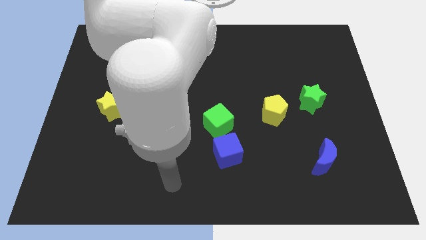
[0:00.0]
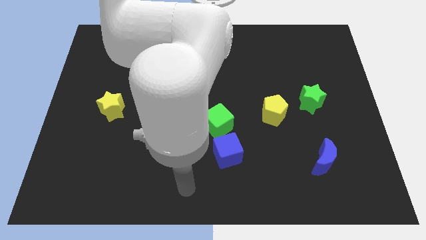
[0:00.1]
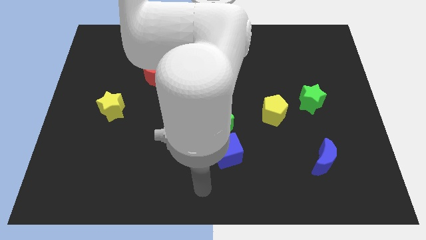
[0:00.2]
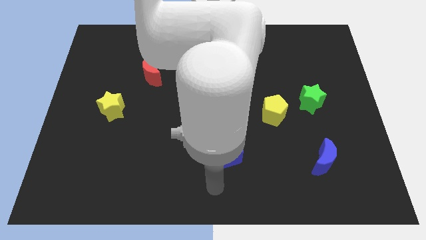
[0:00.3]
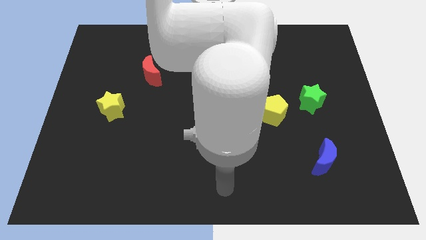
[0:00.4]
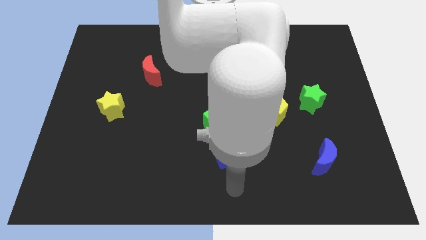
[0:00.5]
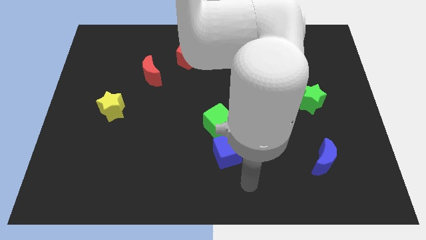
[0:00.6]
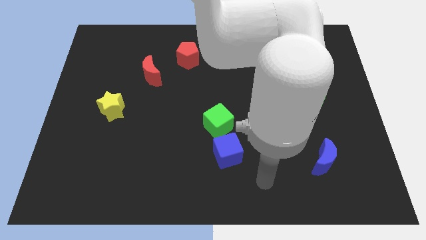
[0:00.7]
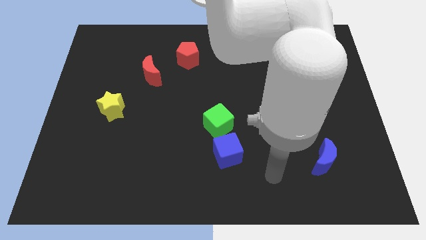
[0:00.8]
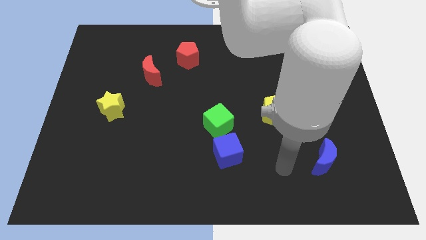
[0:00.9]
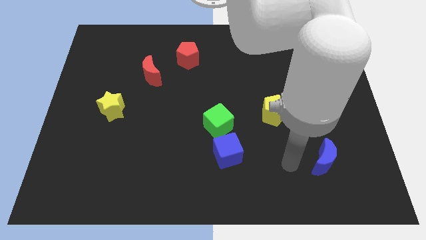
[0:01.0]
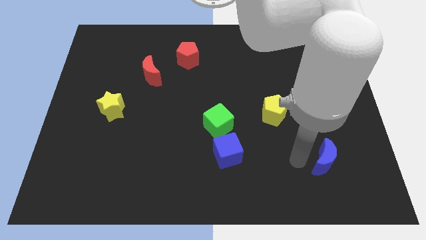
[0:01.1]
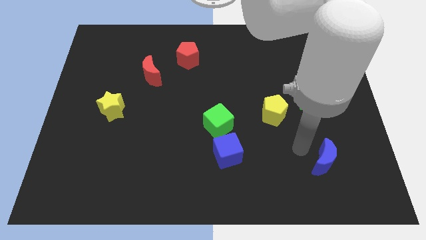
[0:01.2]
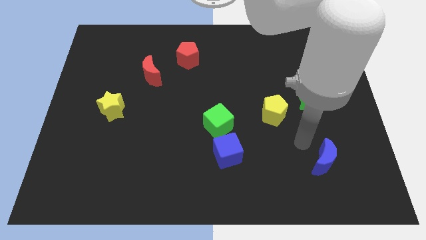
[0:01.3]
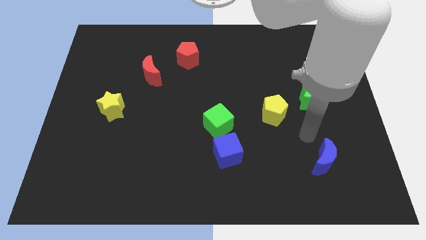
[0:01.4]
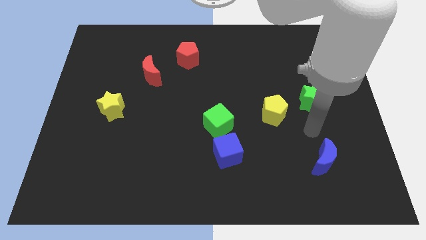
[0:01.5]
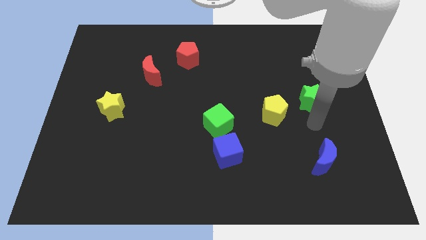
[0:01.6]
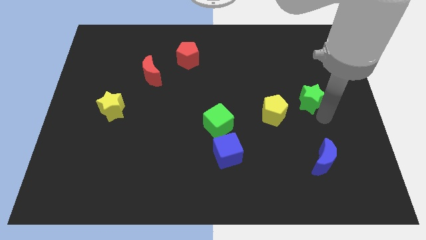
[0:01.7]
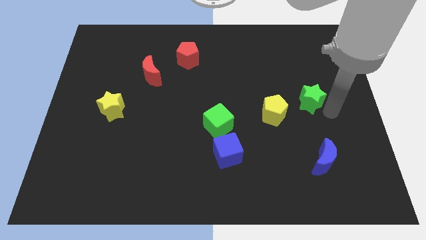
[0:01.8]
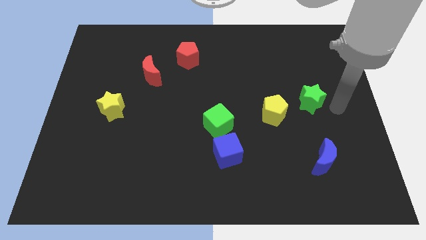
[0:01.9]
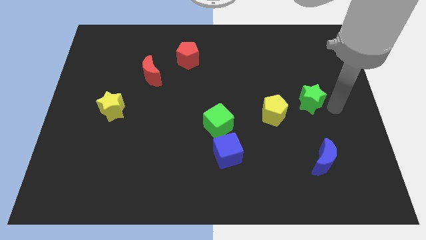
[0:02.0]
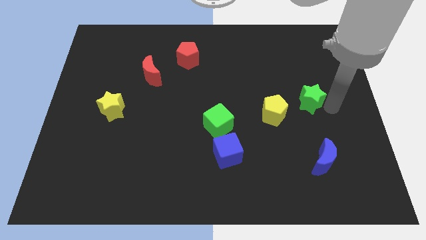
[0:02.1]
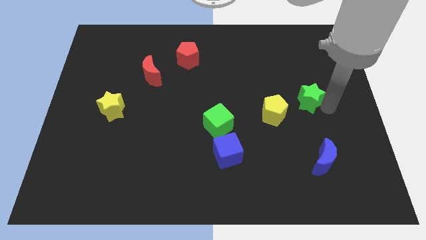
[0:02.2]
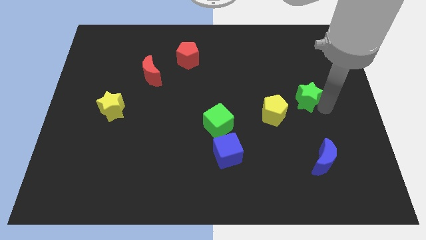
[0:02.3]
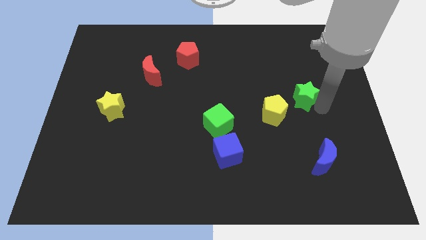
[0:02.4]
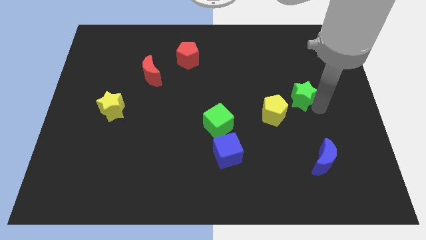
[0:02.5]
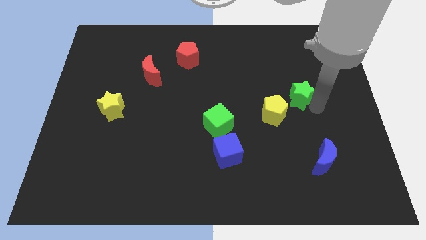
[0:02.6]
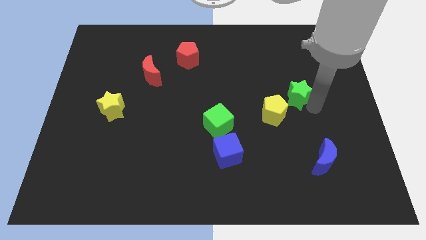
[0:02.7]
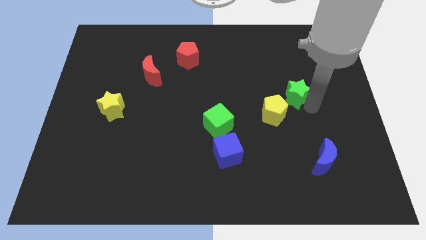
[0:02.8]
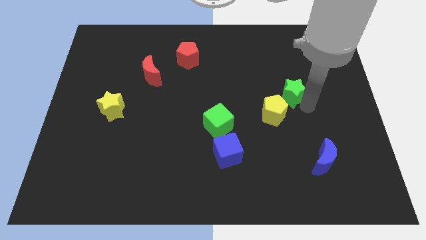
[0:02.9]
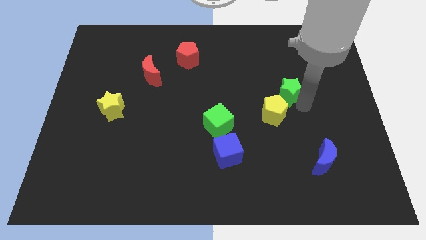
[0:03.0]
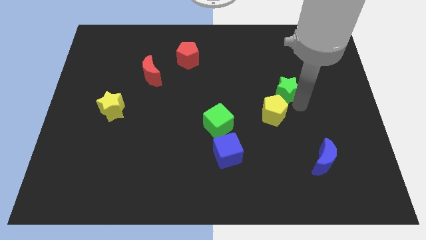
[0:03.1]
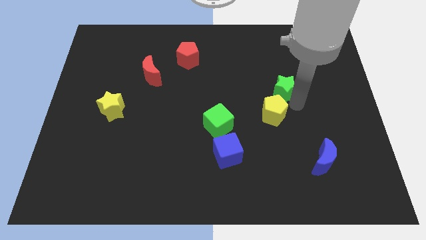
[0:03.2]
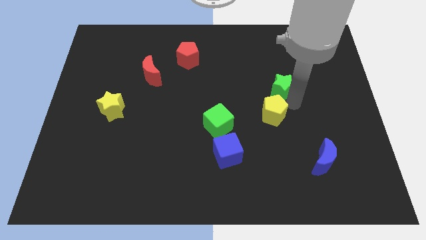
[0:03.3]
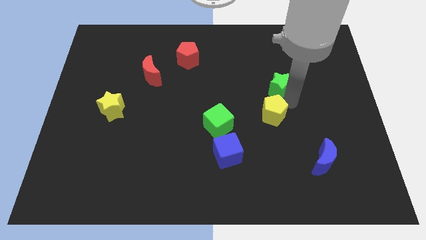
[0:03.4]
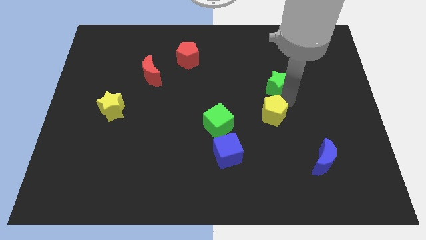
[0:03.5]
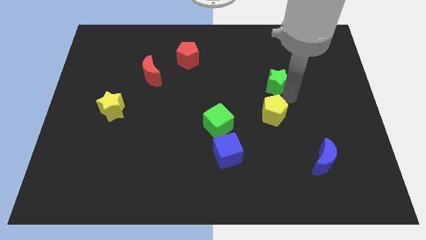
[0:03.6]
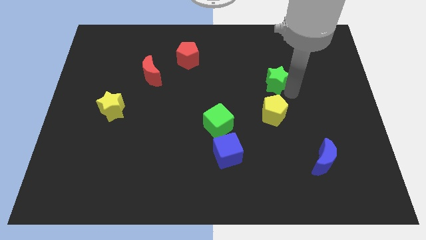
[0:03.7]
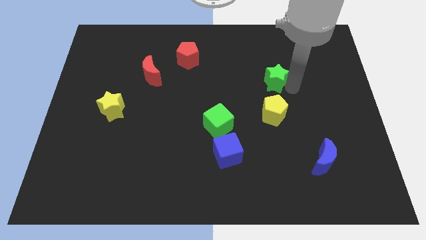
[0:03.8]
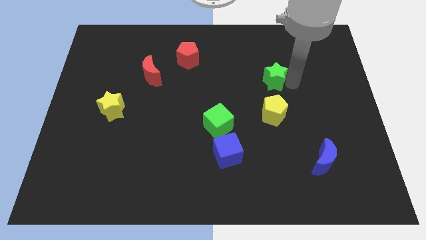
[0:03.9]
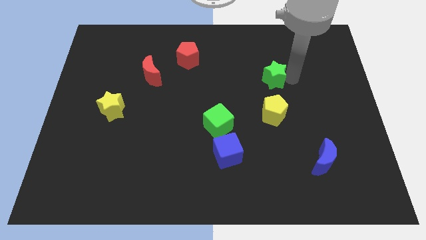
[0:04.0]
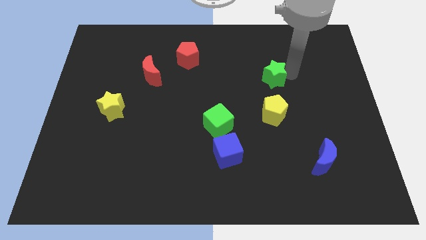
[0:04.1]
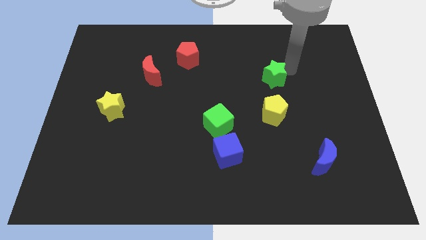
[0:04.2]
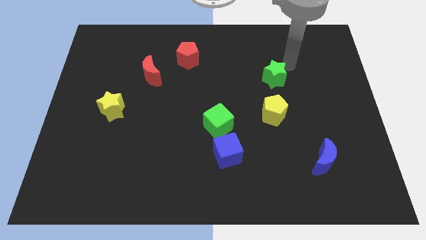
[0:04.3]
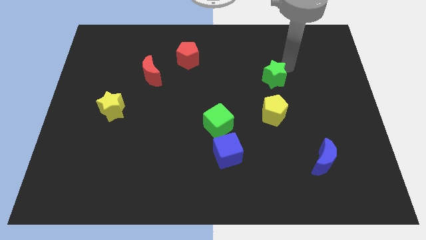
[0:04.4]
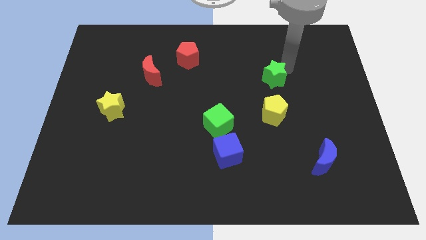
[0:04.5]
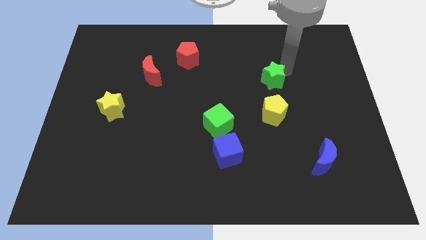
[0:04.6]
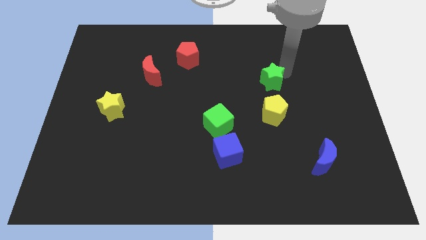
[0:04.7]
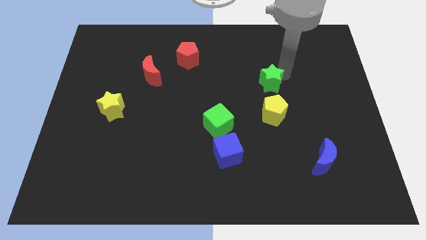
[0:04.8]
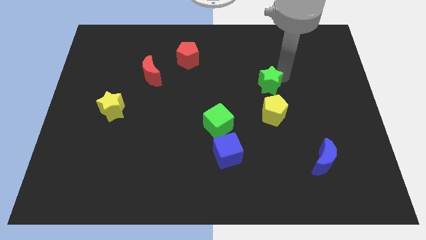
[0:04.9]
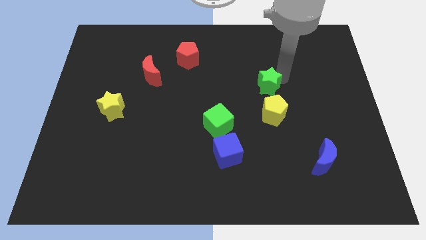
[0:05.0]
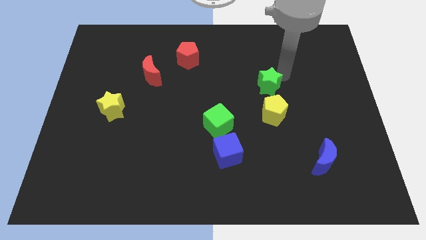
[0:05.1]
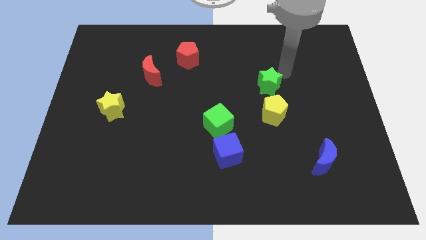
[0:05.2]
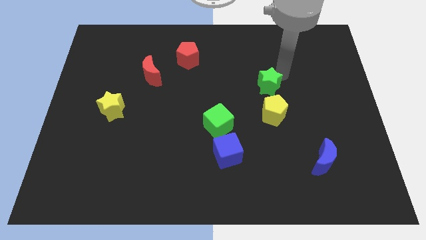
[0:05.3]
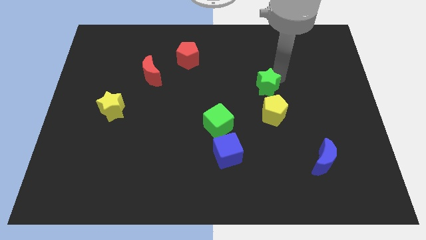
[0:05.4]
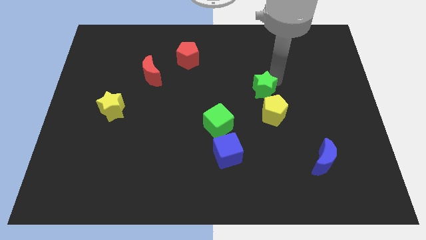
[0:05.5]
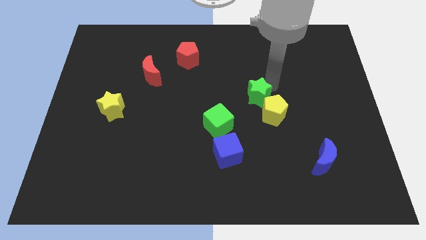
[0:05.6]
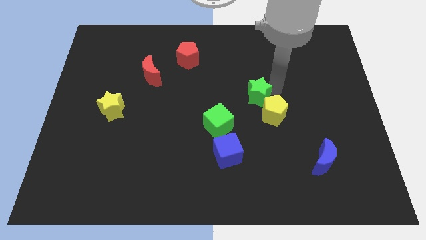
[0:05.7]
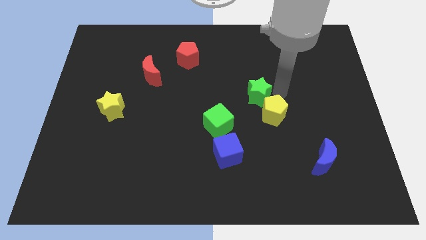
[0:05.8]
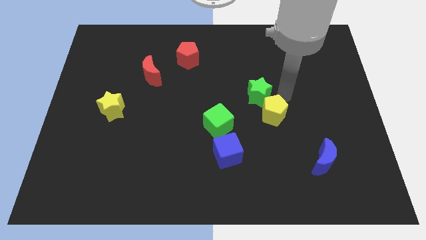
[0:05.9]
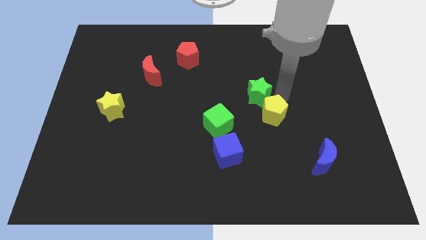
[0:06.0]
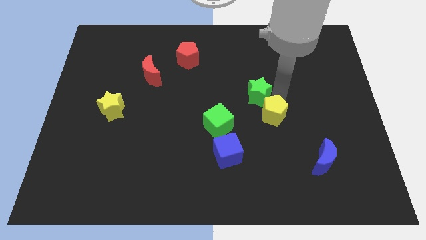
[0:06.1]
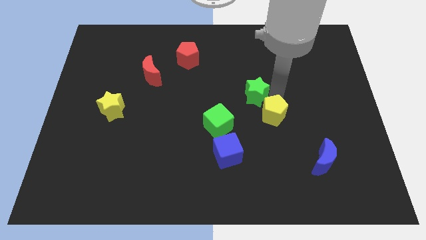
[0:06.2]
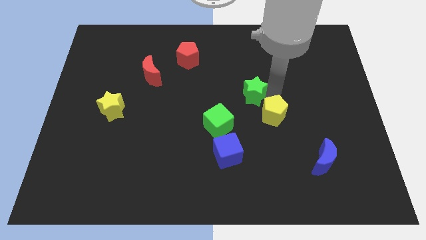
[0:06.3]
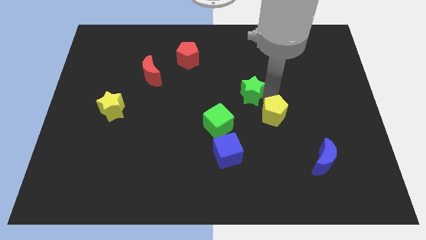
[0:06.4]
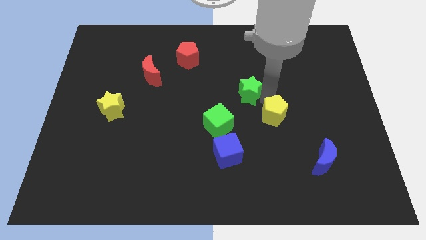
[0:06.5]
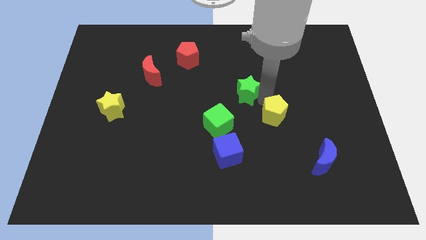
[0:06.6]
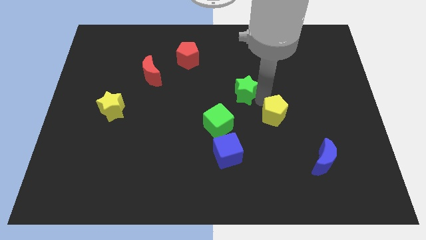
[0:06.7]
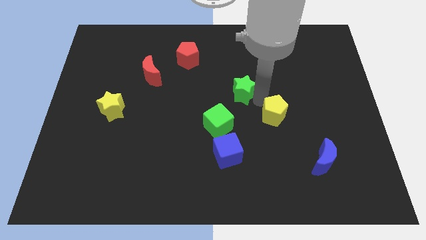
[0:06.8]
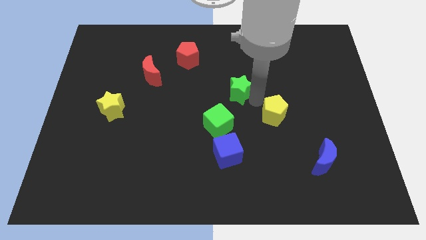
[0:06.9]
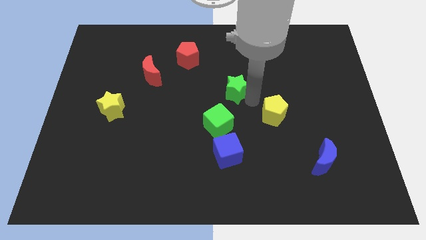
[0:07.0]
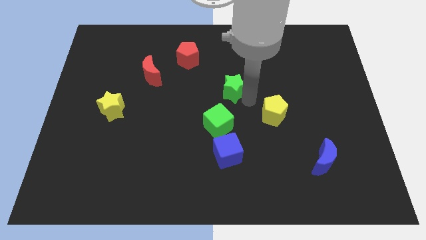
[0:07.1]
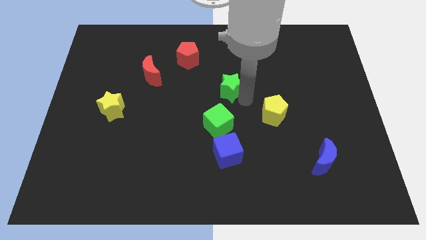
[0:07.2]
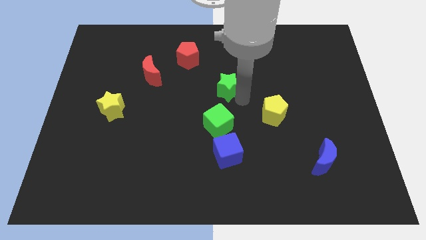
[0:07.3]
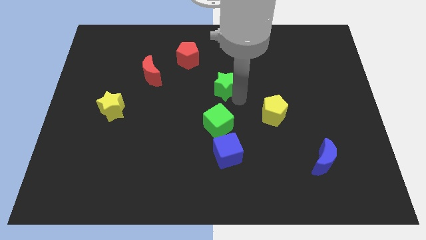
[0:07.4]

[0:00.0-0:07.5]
slide the green star left

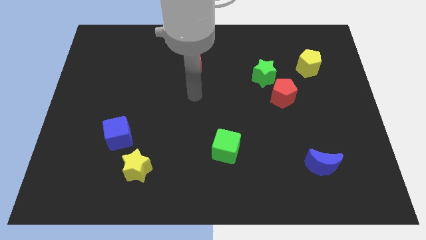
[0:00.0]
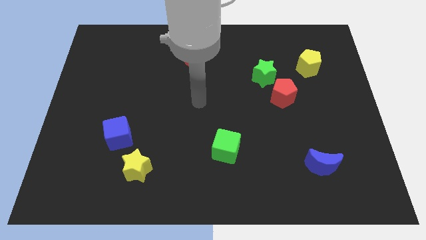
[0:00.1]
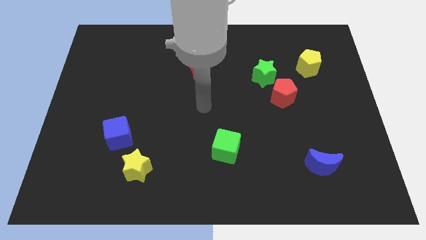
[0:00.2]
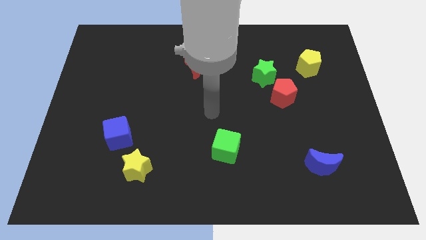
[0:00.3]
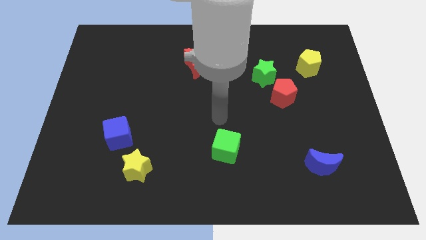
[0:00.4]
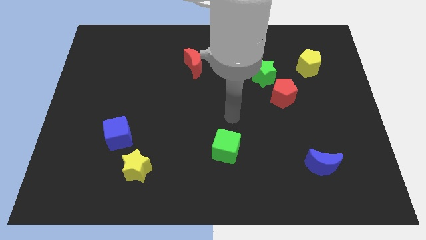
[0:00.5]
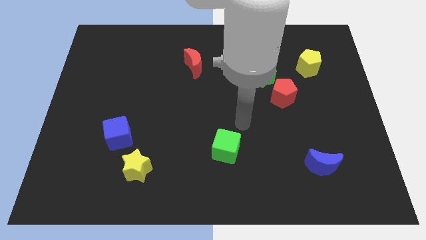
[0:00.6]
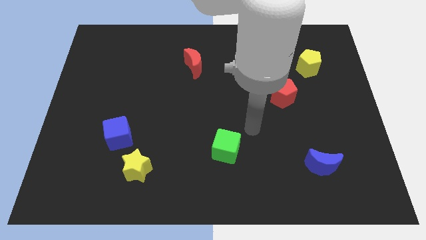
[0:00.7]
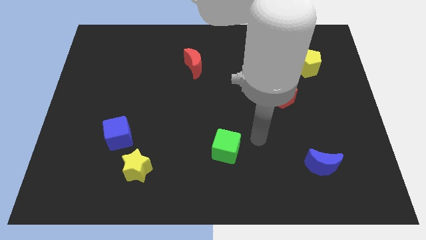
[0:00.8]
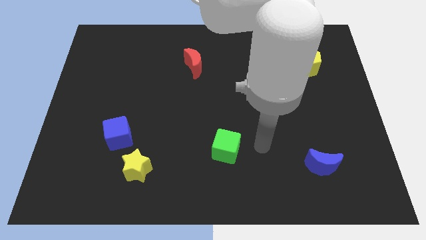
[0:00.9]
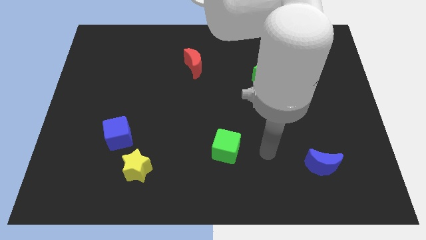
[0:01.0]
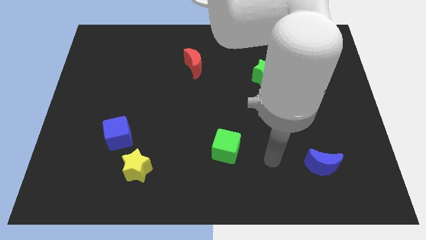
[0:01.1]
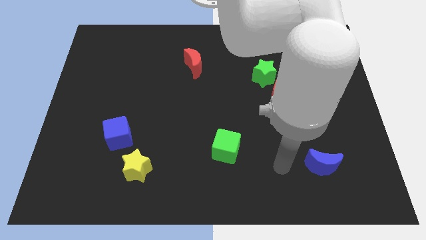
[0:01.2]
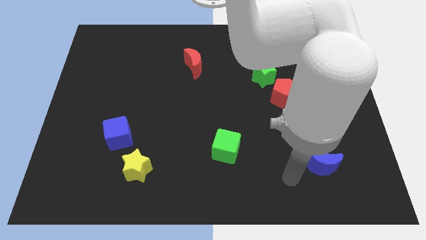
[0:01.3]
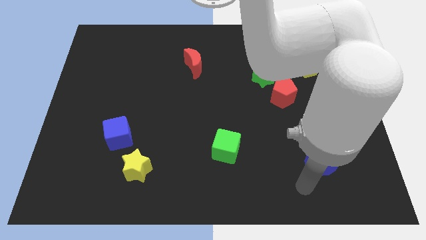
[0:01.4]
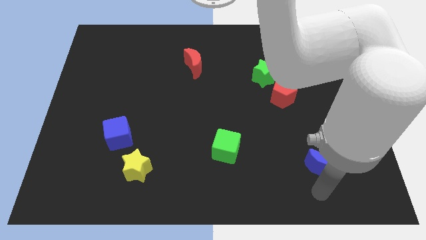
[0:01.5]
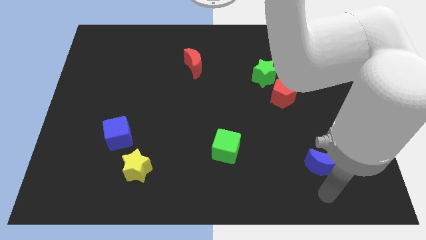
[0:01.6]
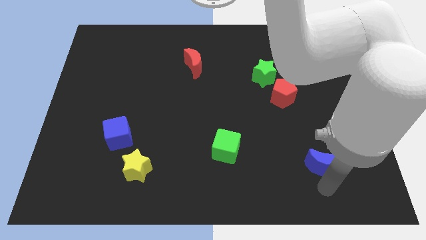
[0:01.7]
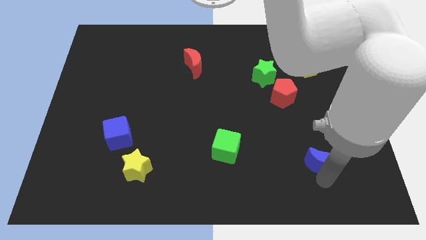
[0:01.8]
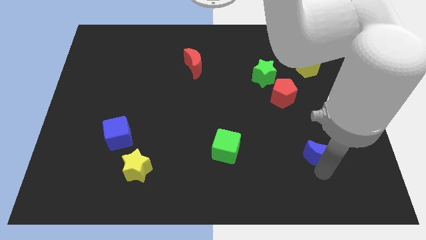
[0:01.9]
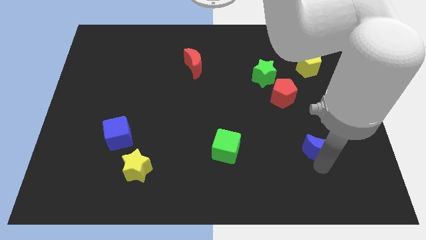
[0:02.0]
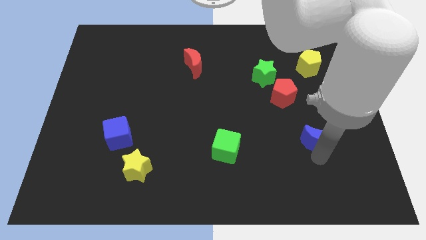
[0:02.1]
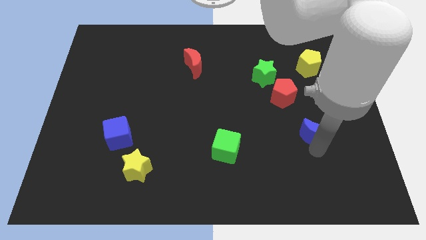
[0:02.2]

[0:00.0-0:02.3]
push the blue moon a little bit up
